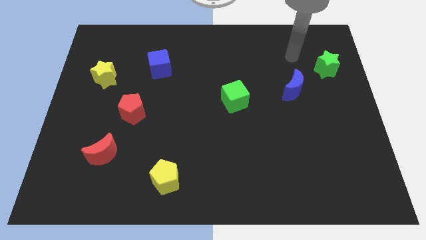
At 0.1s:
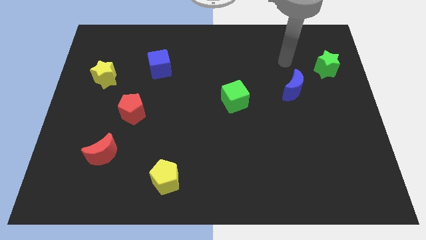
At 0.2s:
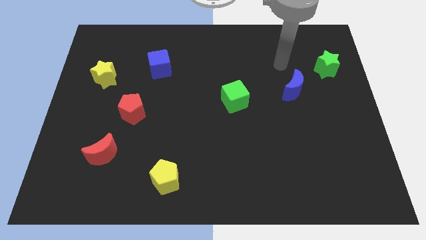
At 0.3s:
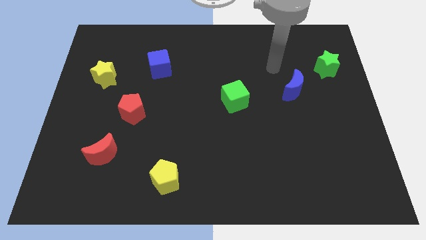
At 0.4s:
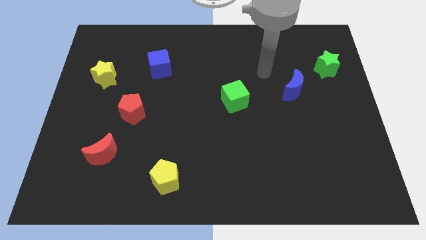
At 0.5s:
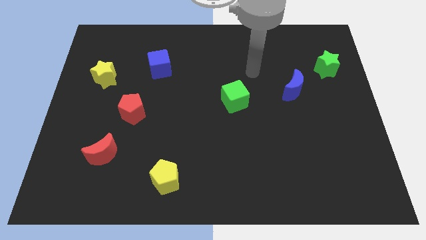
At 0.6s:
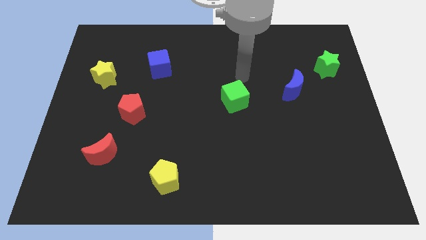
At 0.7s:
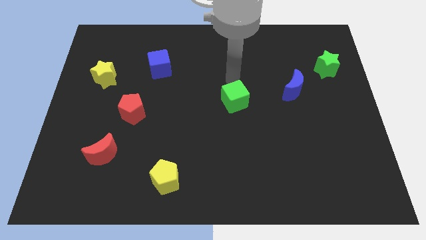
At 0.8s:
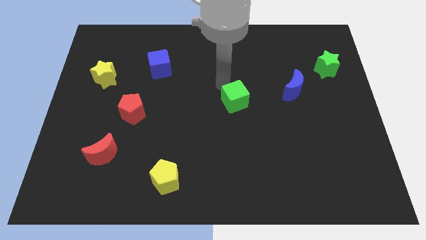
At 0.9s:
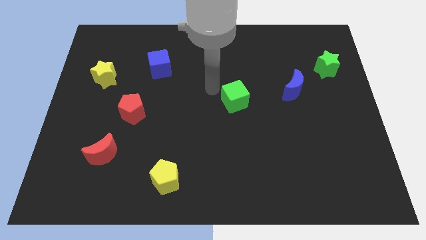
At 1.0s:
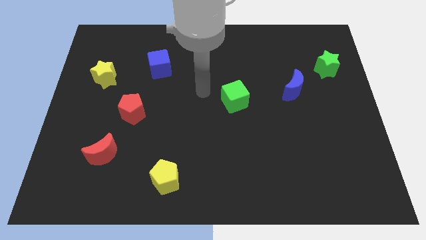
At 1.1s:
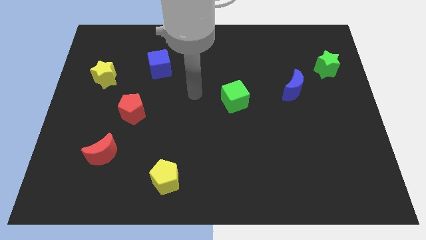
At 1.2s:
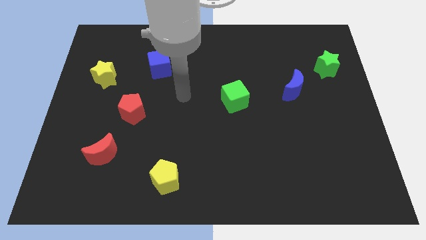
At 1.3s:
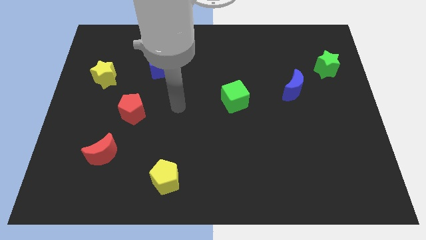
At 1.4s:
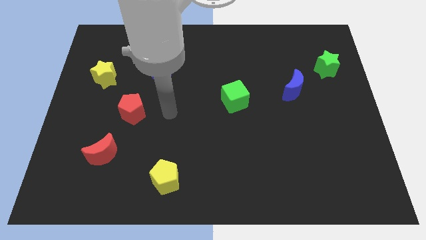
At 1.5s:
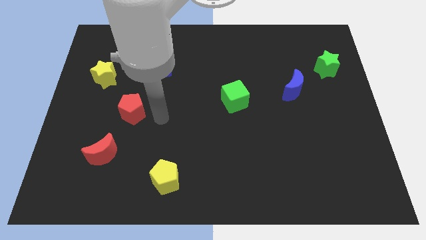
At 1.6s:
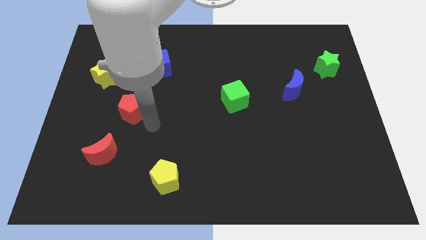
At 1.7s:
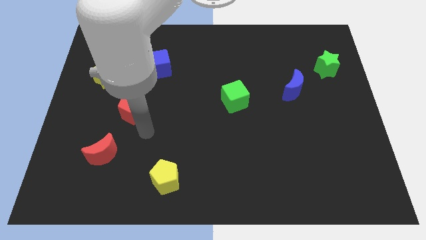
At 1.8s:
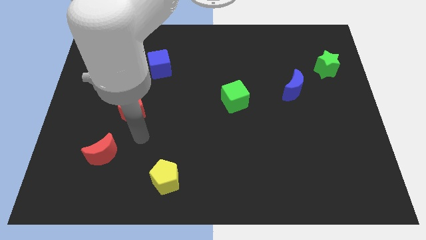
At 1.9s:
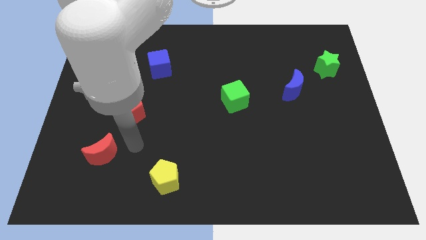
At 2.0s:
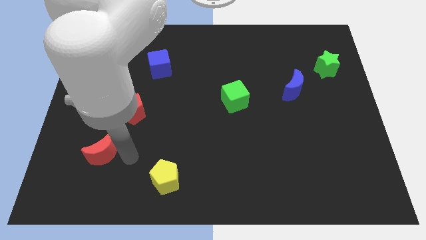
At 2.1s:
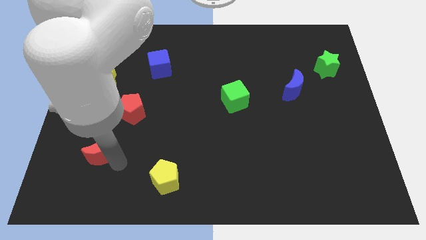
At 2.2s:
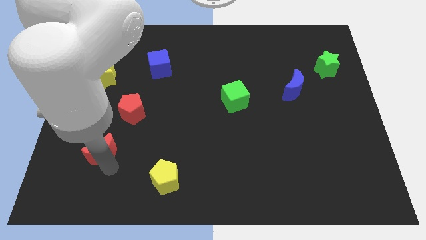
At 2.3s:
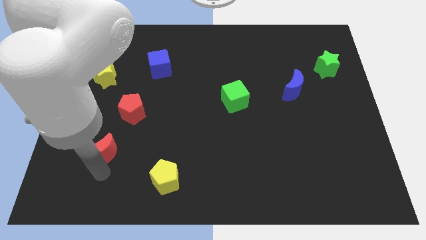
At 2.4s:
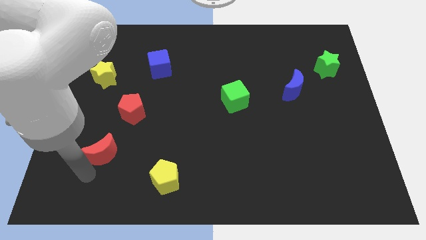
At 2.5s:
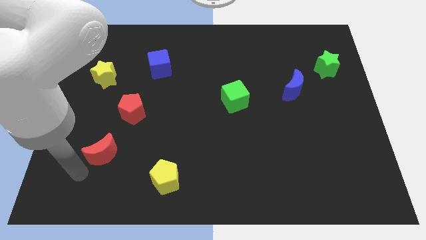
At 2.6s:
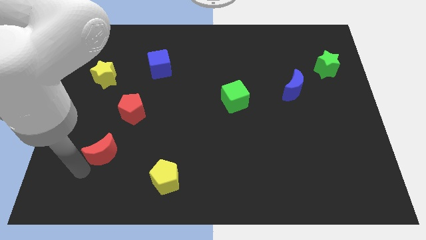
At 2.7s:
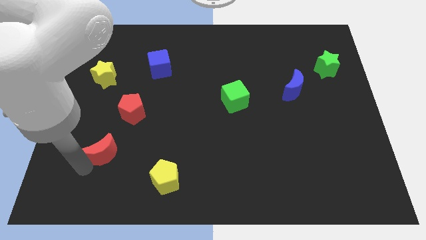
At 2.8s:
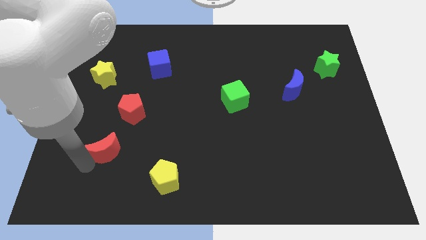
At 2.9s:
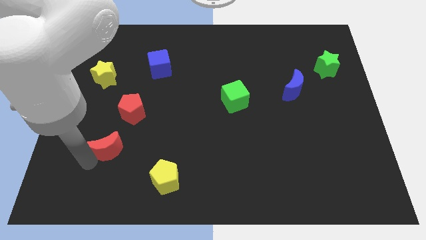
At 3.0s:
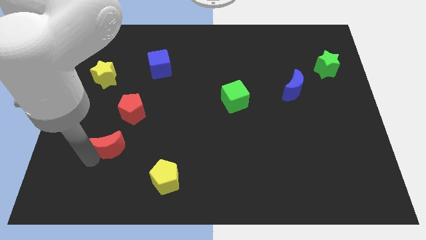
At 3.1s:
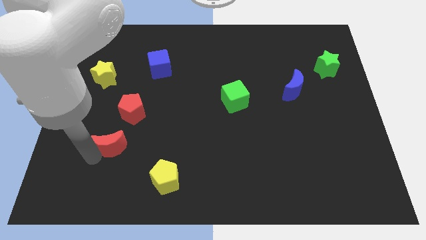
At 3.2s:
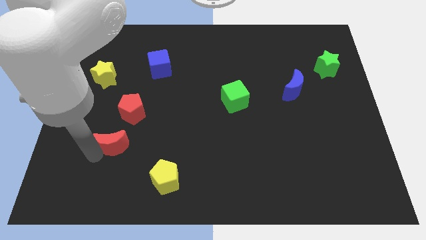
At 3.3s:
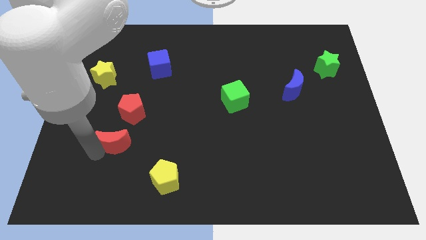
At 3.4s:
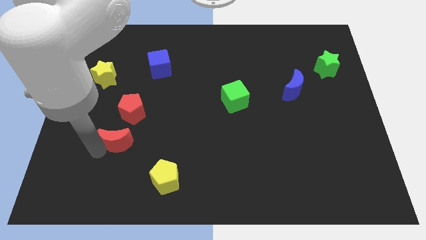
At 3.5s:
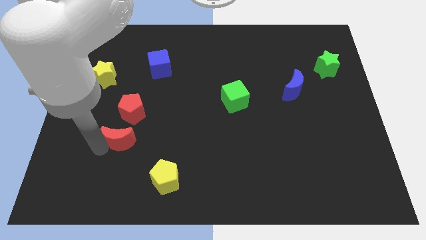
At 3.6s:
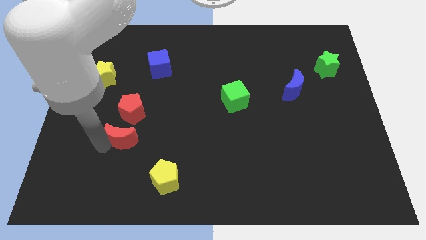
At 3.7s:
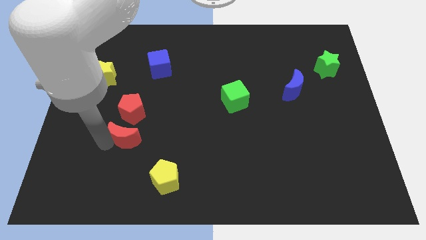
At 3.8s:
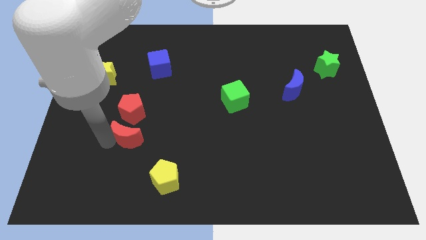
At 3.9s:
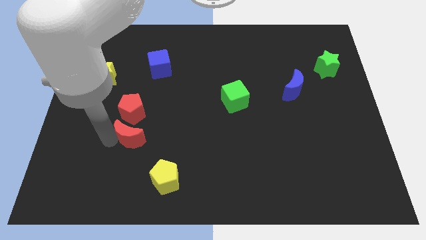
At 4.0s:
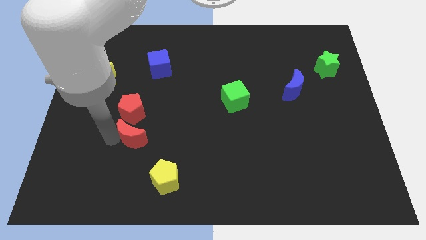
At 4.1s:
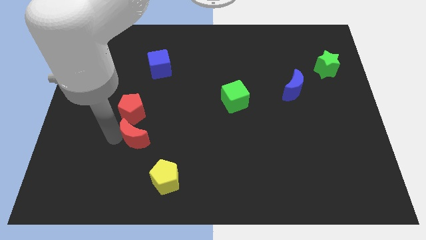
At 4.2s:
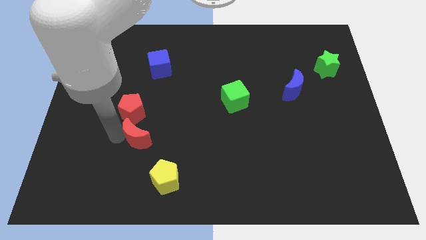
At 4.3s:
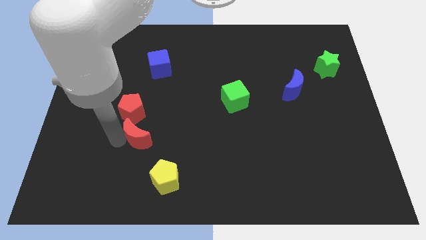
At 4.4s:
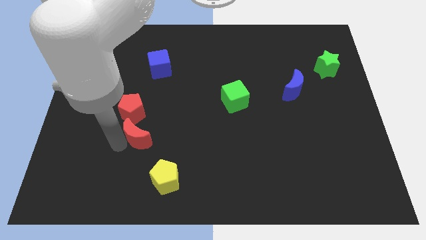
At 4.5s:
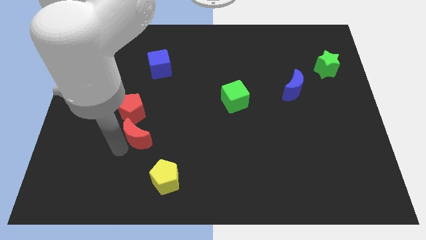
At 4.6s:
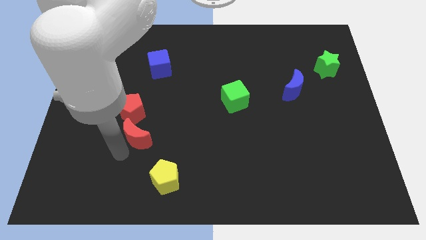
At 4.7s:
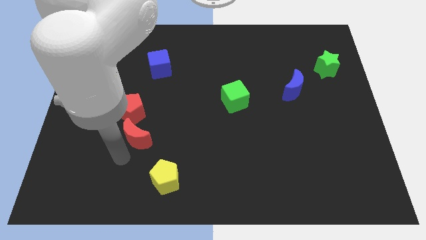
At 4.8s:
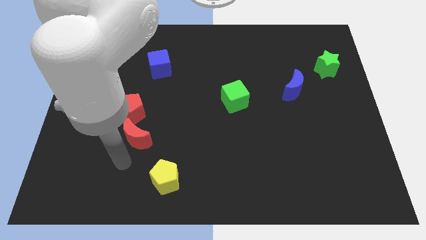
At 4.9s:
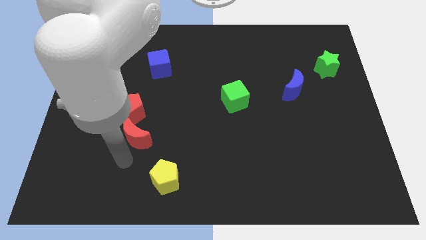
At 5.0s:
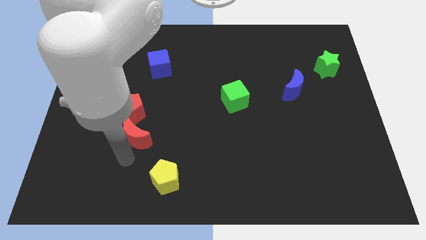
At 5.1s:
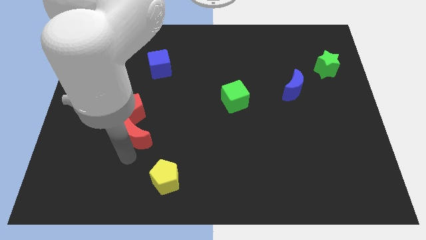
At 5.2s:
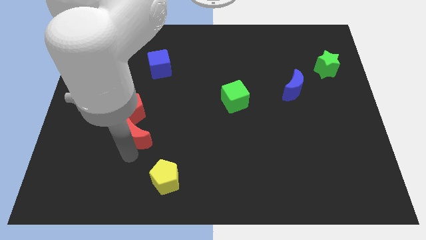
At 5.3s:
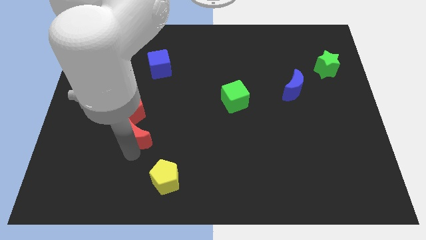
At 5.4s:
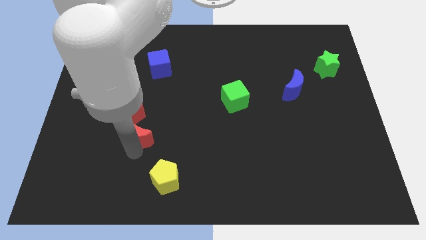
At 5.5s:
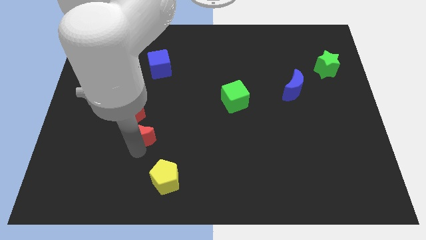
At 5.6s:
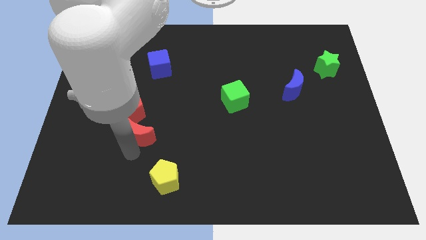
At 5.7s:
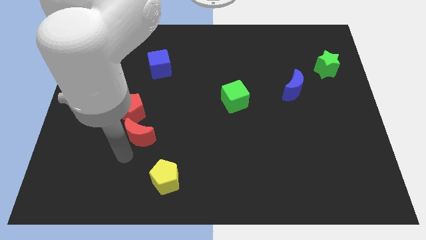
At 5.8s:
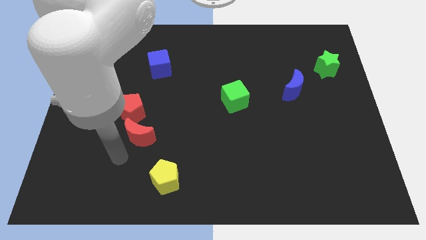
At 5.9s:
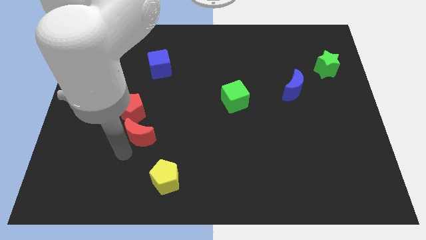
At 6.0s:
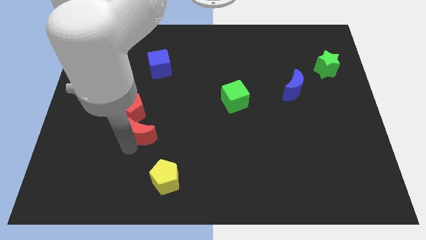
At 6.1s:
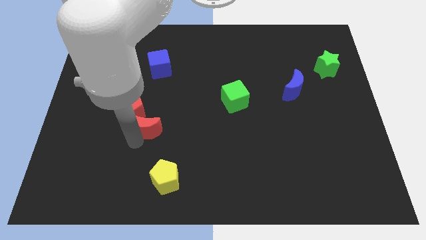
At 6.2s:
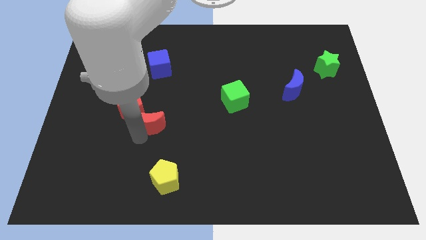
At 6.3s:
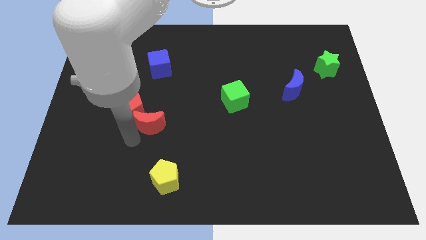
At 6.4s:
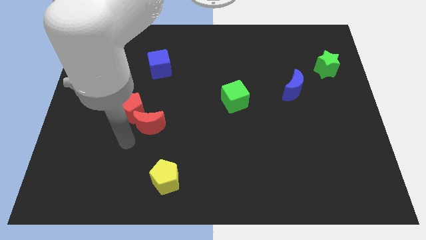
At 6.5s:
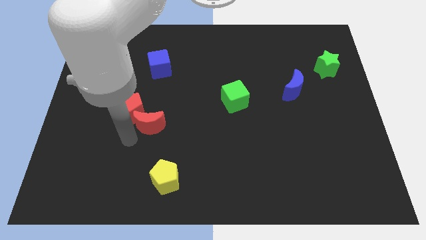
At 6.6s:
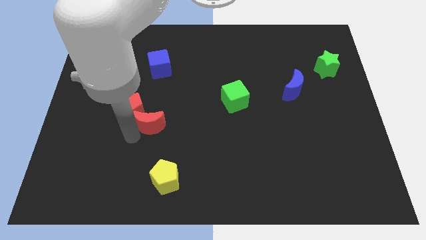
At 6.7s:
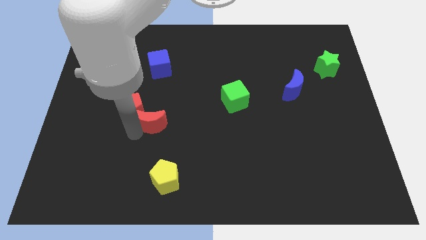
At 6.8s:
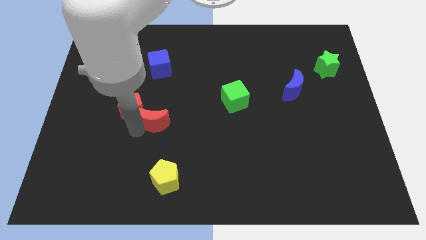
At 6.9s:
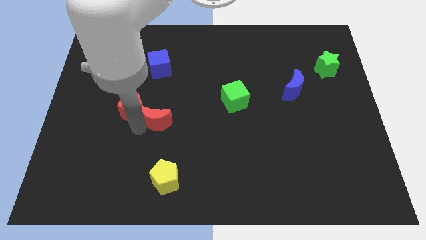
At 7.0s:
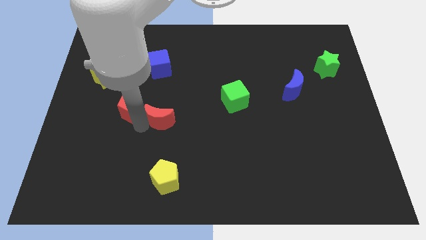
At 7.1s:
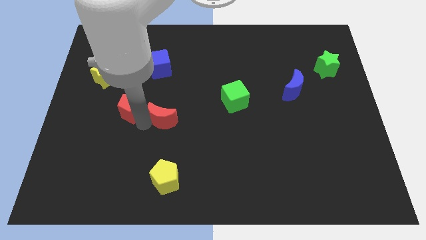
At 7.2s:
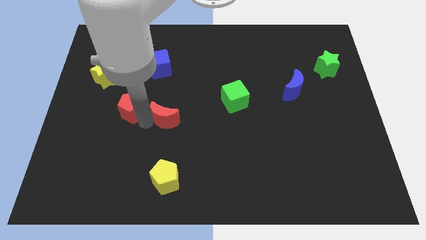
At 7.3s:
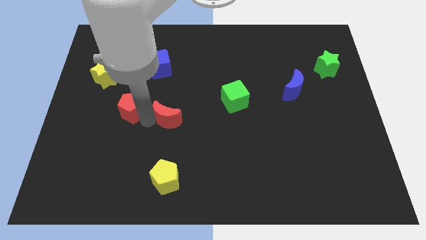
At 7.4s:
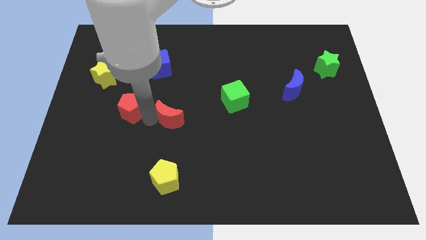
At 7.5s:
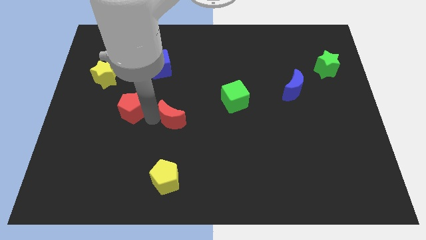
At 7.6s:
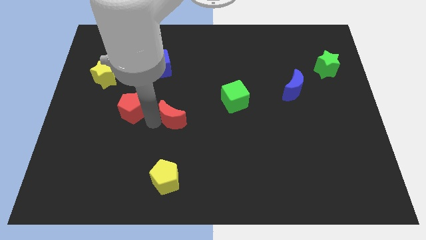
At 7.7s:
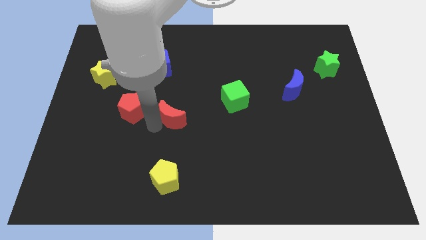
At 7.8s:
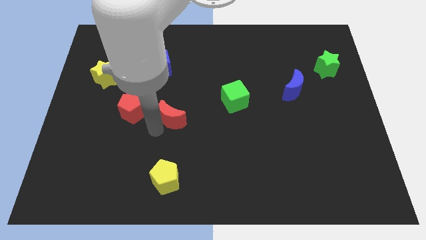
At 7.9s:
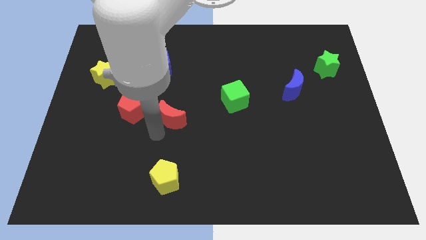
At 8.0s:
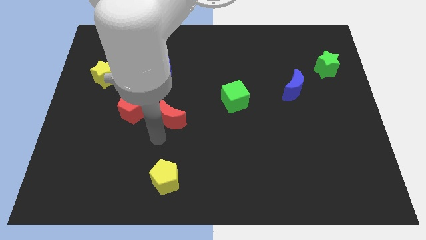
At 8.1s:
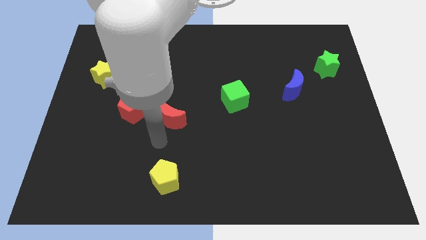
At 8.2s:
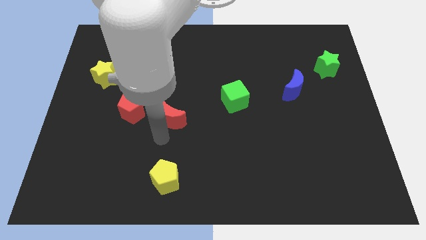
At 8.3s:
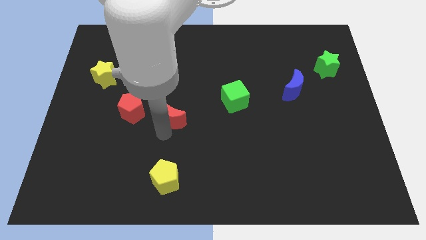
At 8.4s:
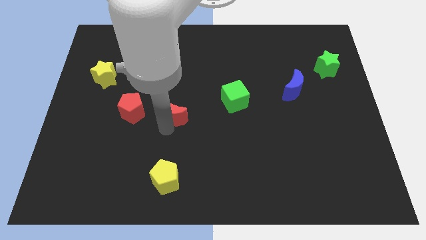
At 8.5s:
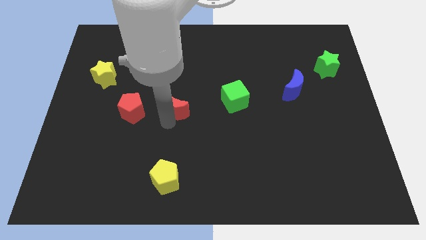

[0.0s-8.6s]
put the red moon to the left of the green cube
